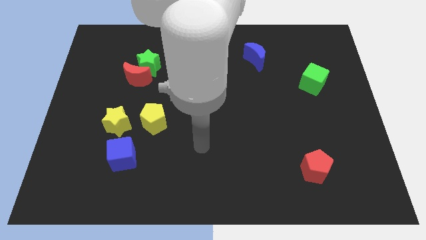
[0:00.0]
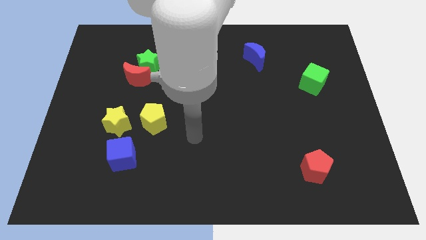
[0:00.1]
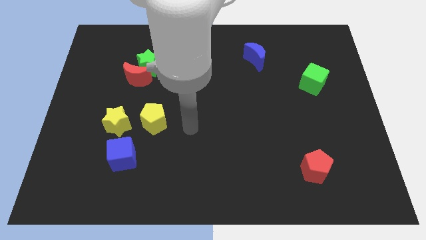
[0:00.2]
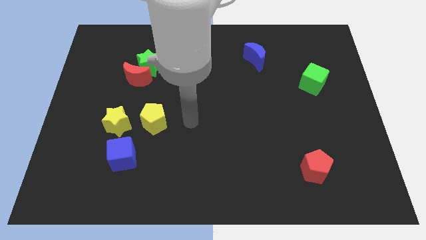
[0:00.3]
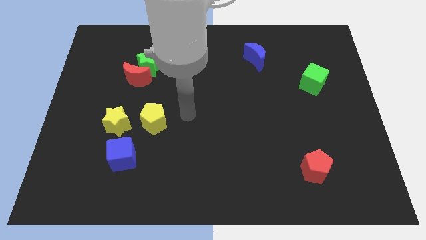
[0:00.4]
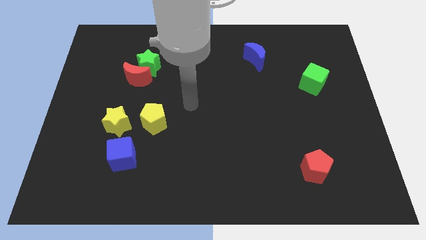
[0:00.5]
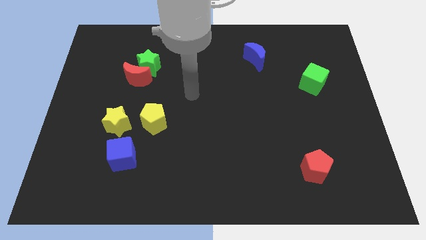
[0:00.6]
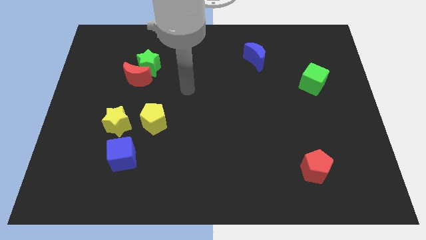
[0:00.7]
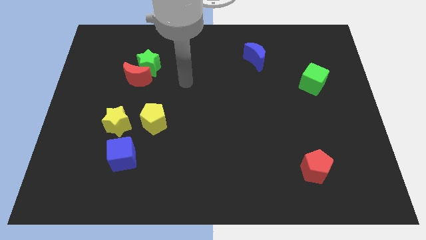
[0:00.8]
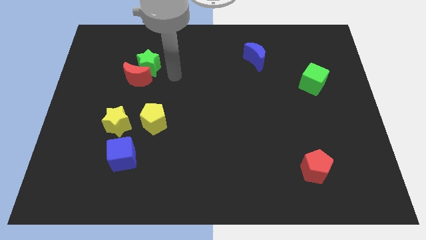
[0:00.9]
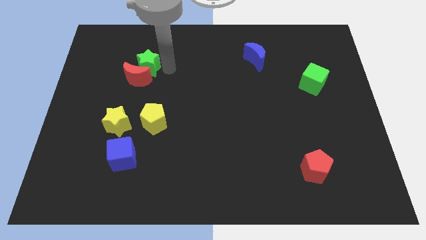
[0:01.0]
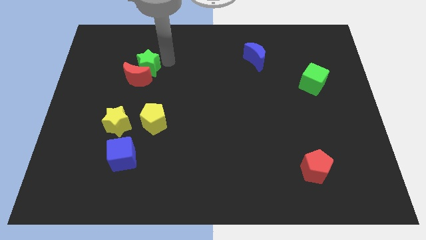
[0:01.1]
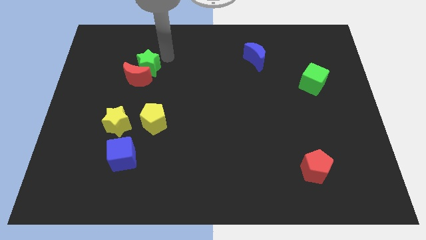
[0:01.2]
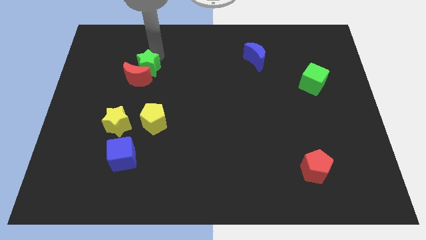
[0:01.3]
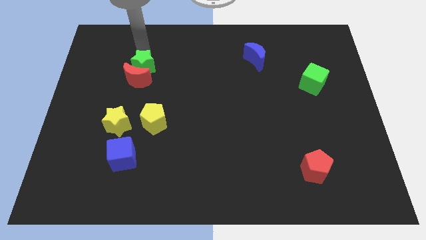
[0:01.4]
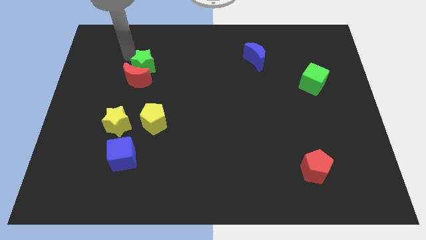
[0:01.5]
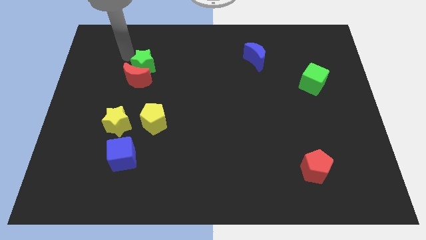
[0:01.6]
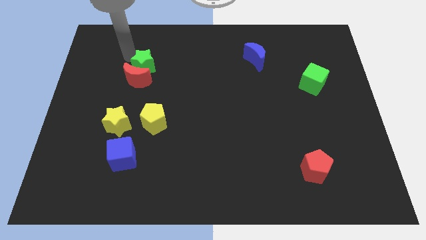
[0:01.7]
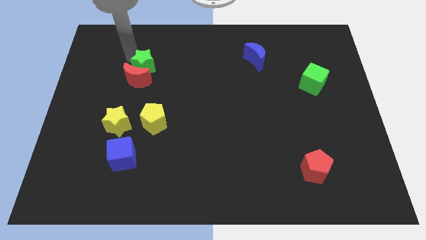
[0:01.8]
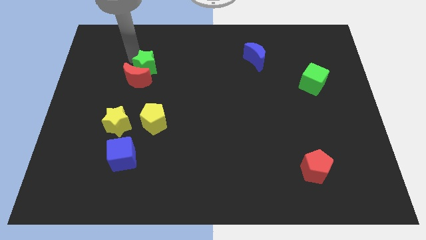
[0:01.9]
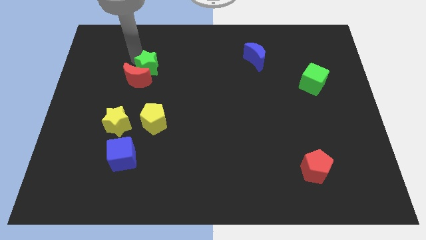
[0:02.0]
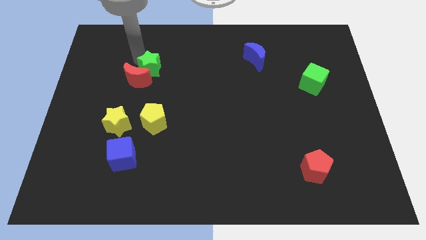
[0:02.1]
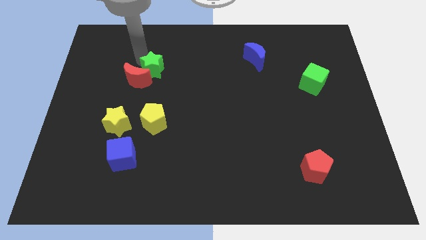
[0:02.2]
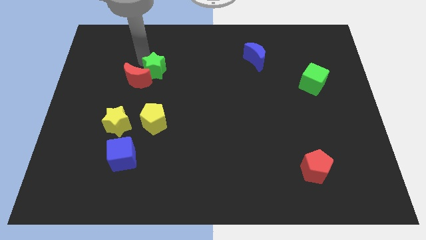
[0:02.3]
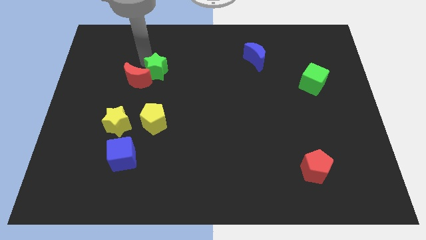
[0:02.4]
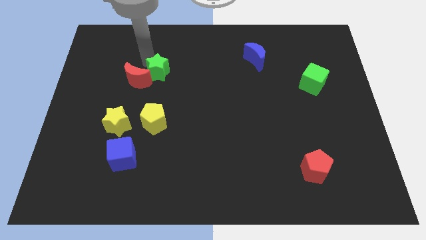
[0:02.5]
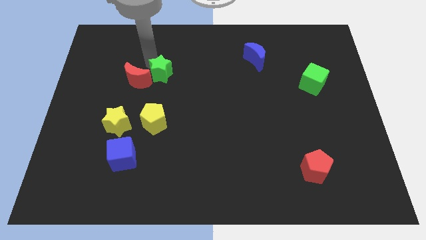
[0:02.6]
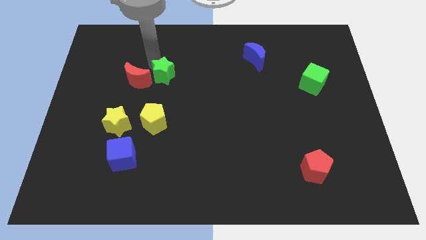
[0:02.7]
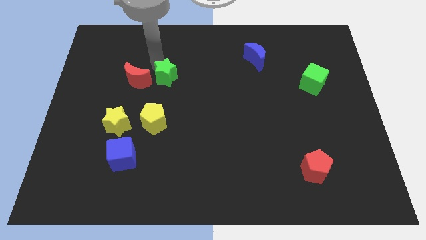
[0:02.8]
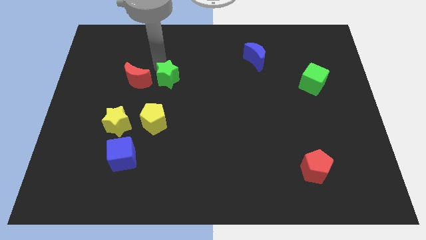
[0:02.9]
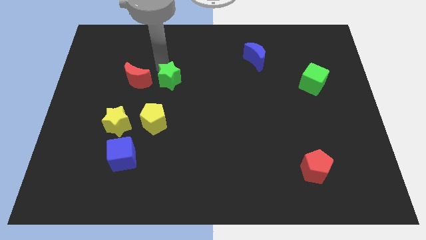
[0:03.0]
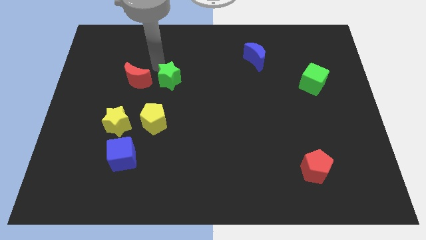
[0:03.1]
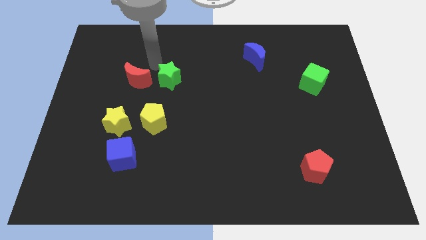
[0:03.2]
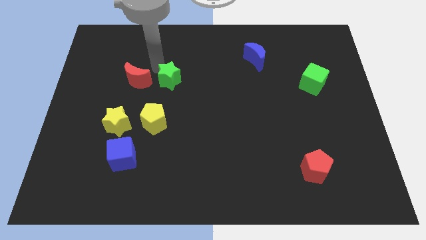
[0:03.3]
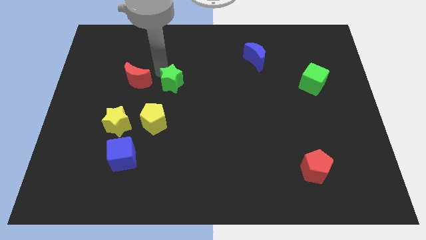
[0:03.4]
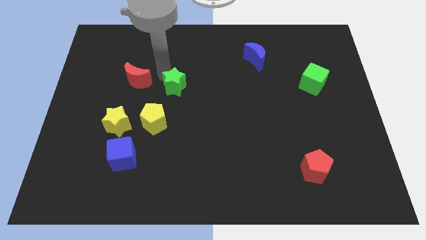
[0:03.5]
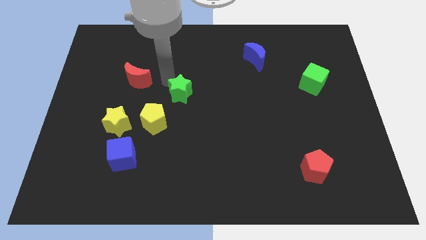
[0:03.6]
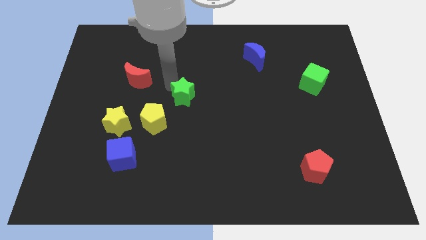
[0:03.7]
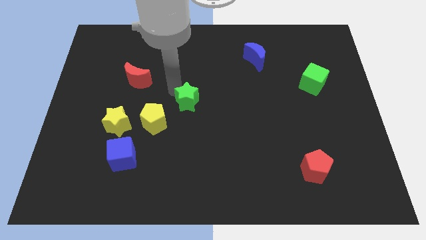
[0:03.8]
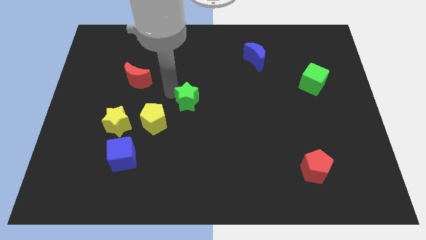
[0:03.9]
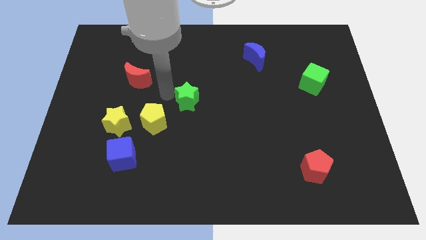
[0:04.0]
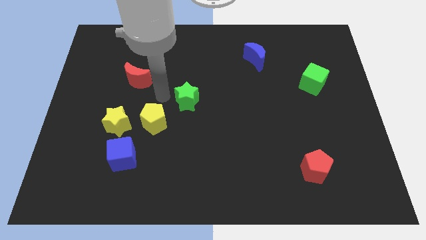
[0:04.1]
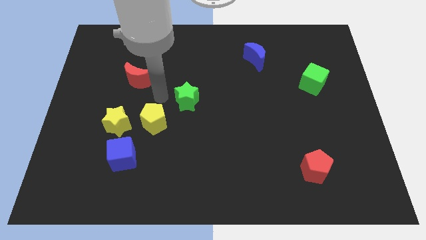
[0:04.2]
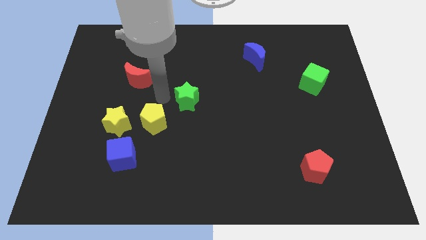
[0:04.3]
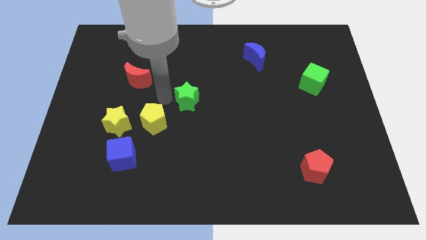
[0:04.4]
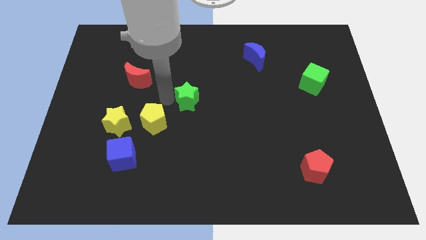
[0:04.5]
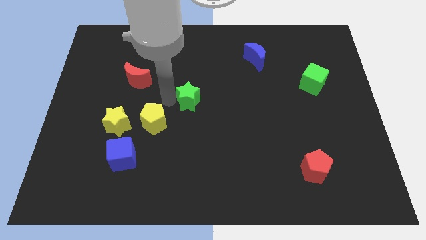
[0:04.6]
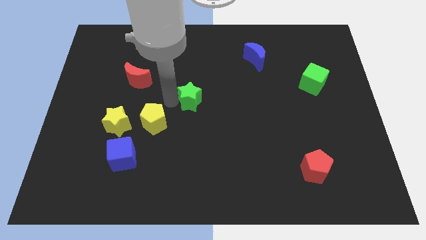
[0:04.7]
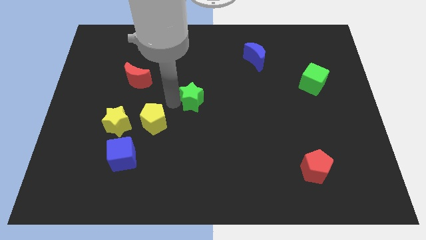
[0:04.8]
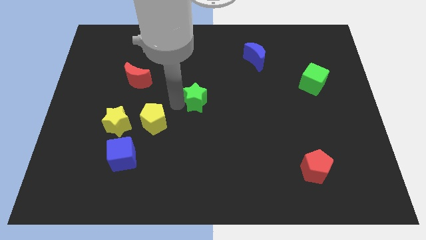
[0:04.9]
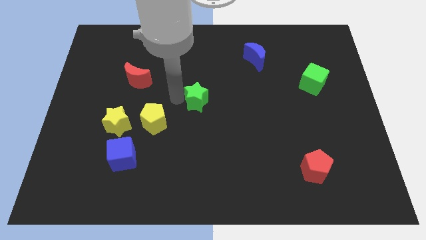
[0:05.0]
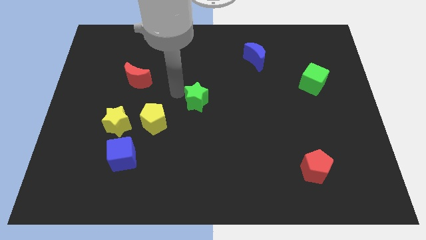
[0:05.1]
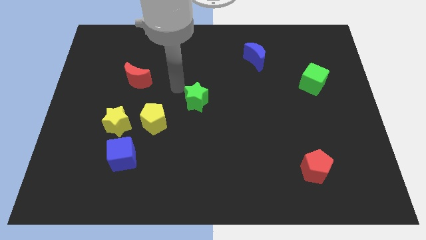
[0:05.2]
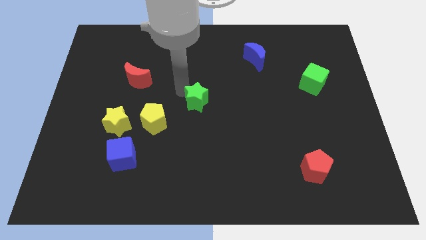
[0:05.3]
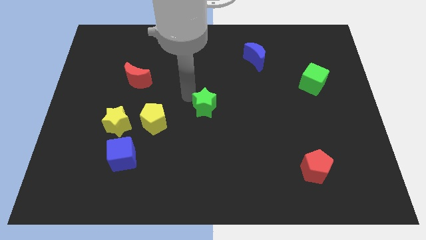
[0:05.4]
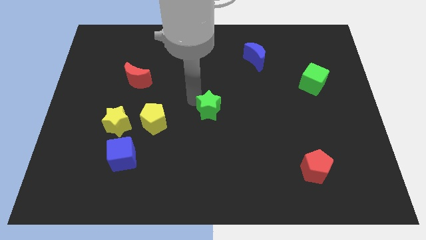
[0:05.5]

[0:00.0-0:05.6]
slide the green star diagonally down and to the right

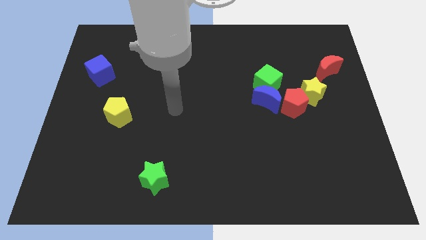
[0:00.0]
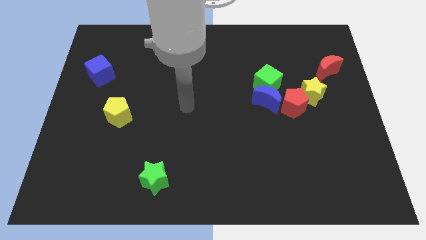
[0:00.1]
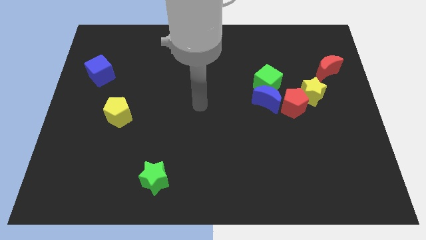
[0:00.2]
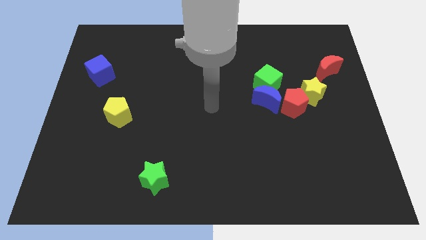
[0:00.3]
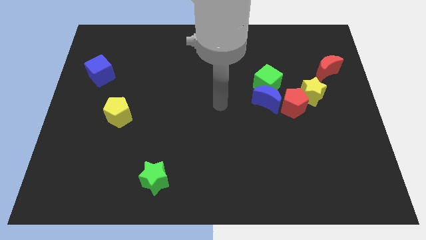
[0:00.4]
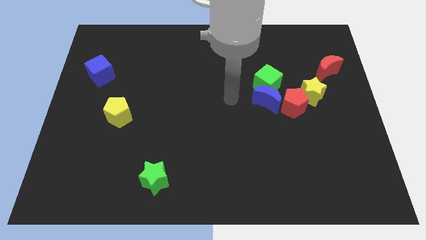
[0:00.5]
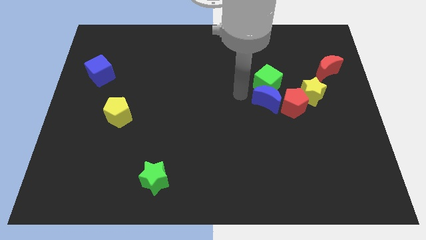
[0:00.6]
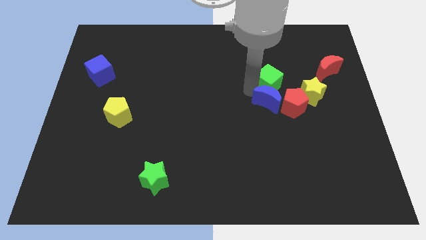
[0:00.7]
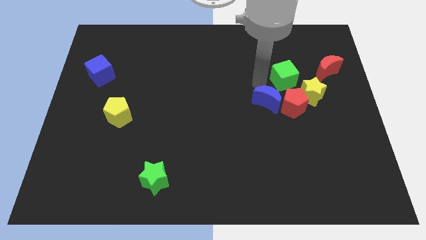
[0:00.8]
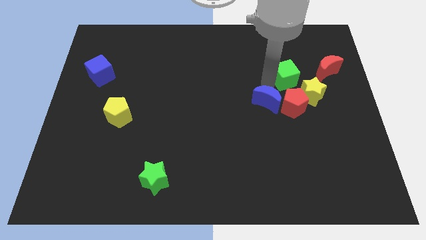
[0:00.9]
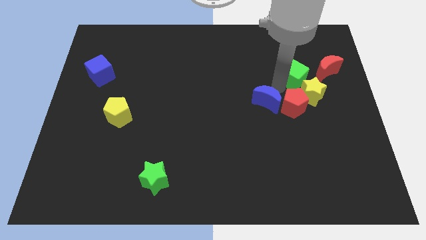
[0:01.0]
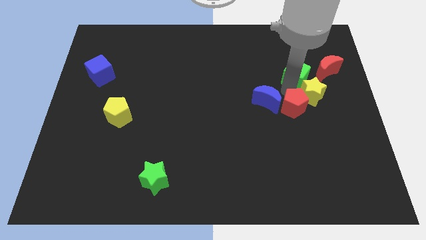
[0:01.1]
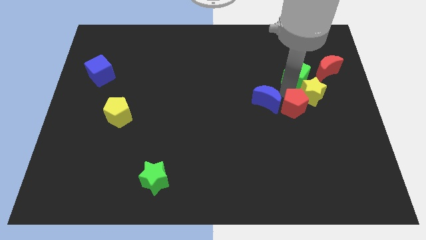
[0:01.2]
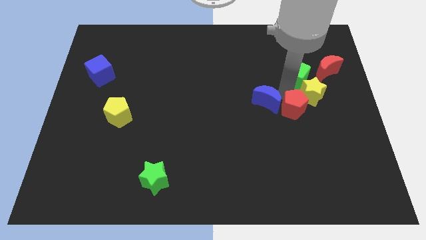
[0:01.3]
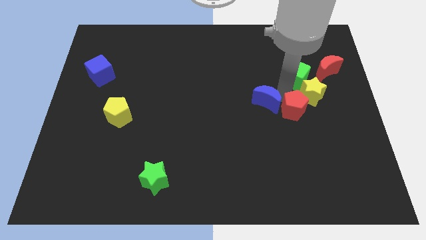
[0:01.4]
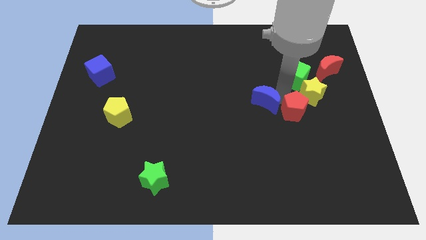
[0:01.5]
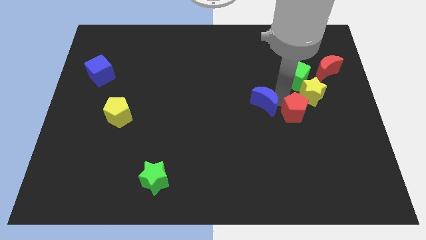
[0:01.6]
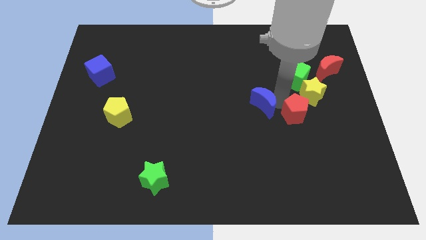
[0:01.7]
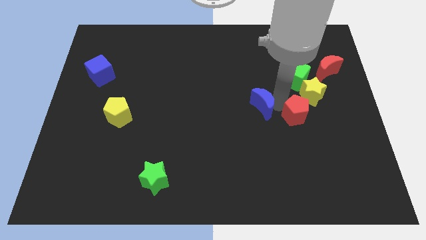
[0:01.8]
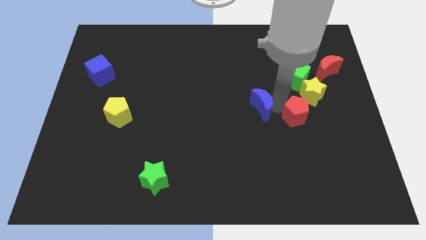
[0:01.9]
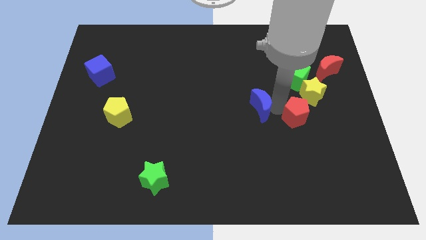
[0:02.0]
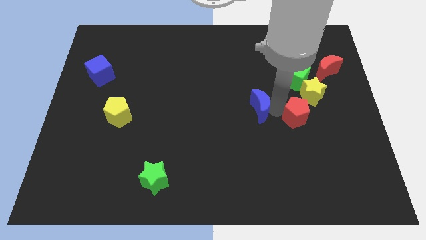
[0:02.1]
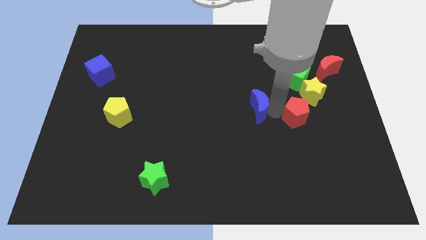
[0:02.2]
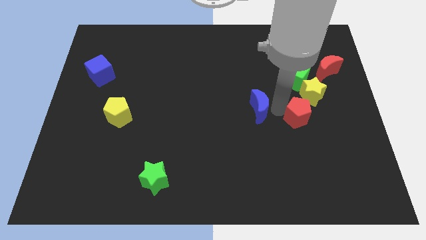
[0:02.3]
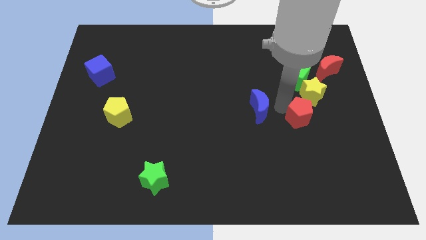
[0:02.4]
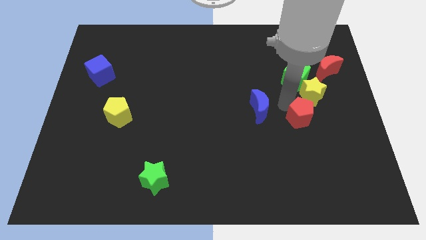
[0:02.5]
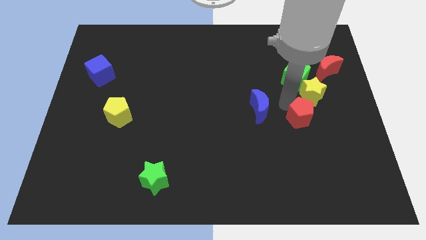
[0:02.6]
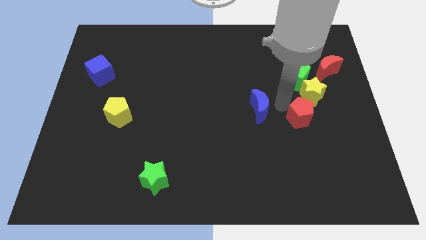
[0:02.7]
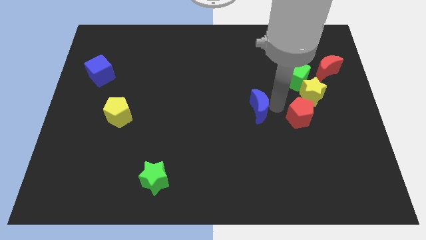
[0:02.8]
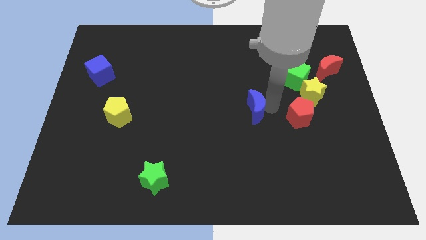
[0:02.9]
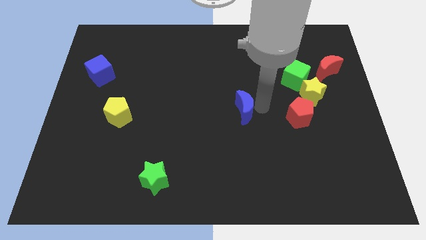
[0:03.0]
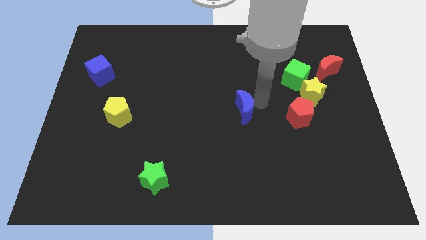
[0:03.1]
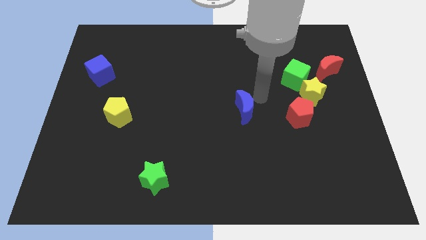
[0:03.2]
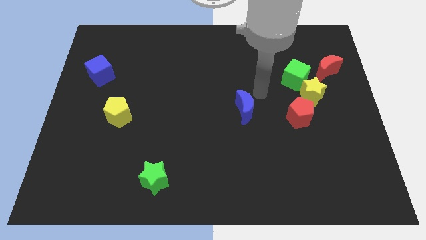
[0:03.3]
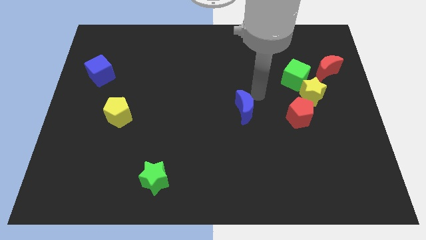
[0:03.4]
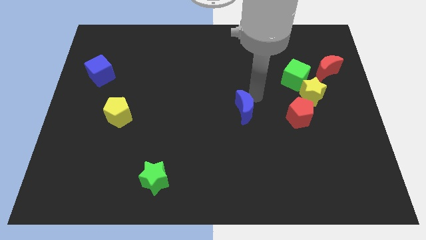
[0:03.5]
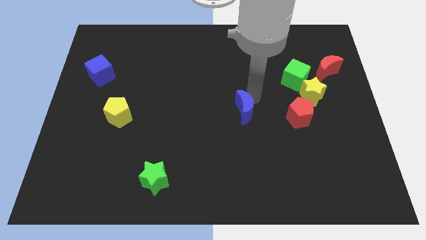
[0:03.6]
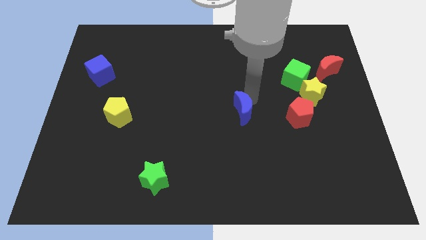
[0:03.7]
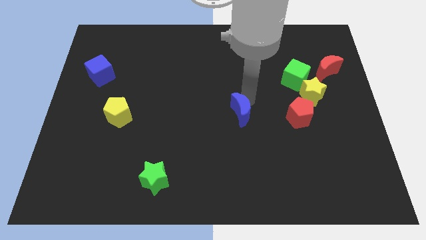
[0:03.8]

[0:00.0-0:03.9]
slightly move the blue moon down and to the left diagonally
